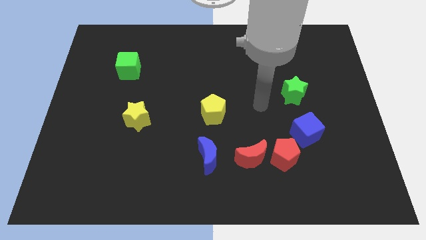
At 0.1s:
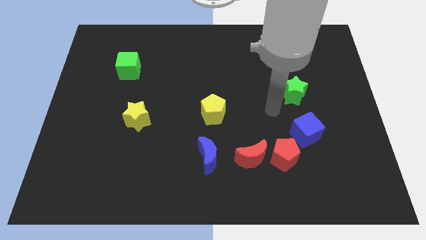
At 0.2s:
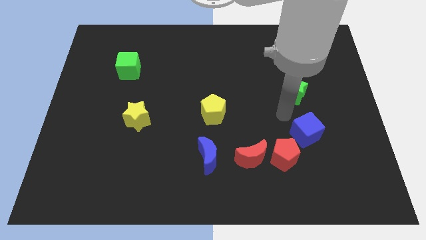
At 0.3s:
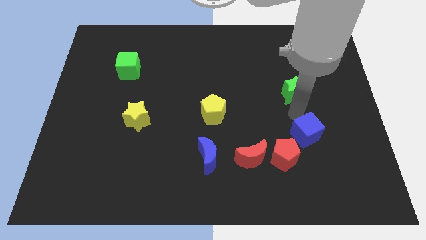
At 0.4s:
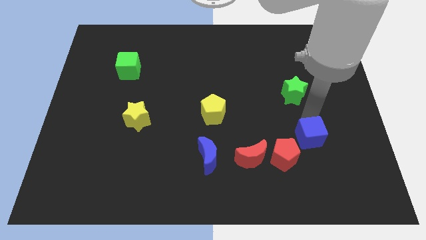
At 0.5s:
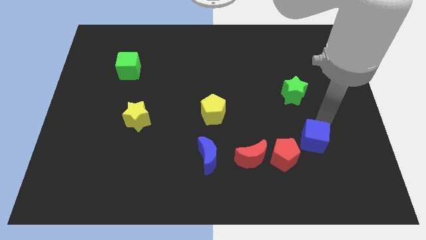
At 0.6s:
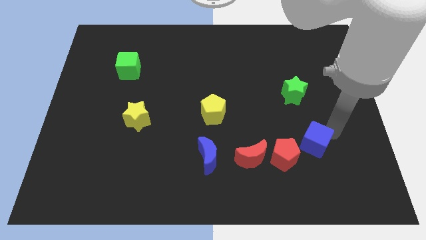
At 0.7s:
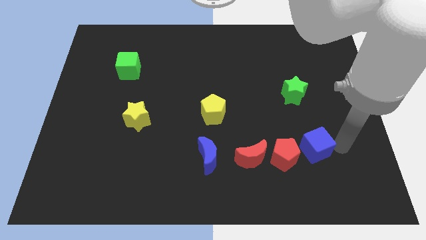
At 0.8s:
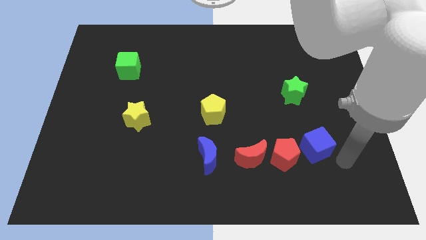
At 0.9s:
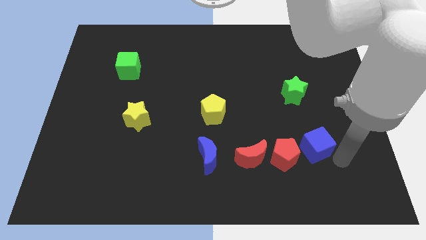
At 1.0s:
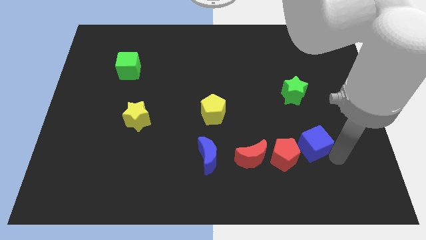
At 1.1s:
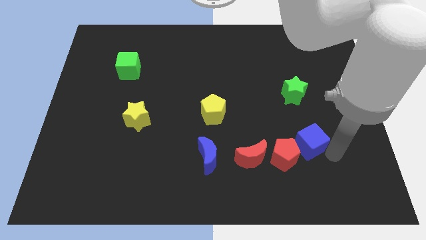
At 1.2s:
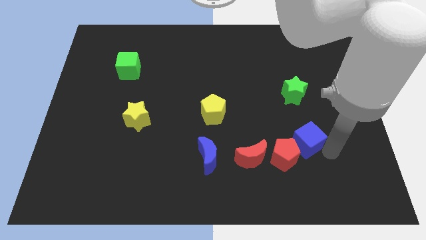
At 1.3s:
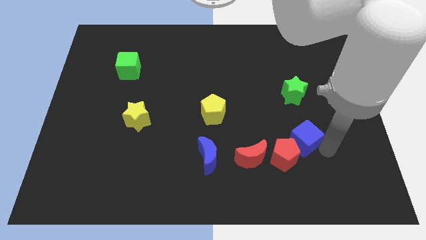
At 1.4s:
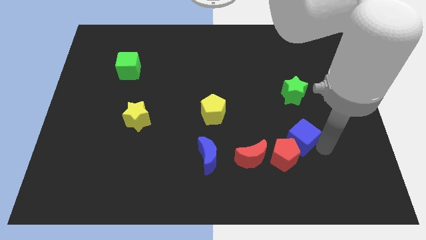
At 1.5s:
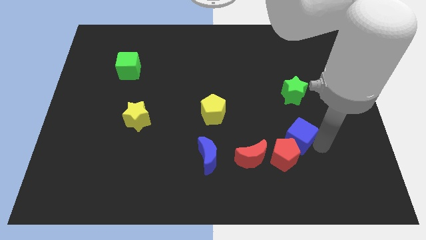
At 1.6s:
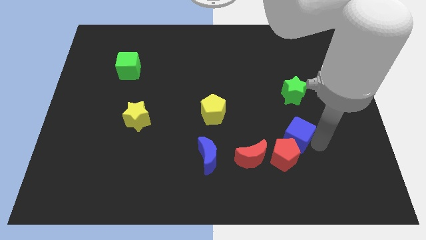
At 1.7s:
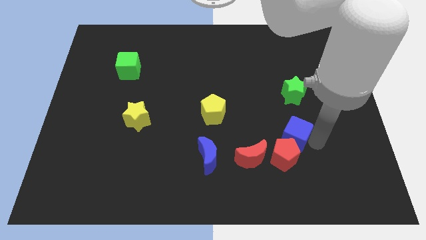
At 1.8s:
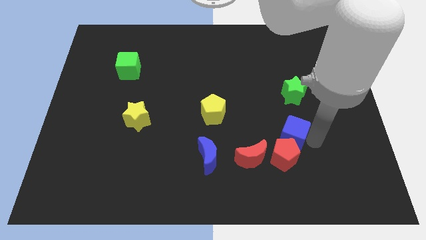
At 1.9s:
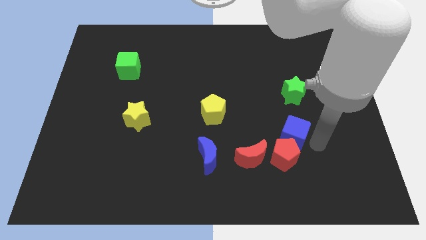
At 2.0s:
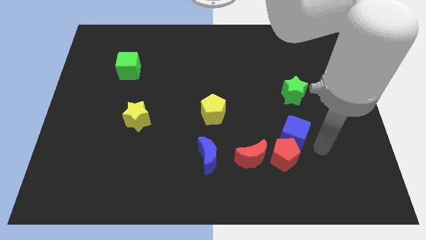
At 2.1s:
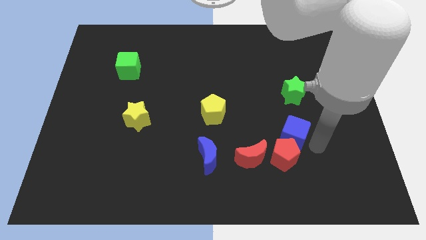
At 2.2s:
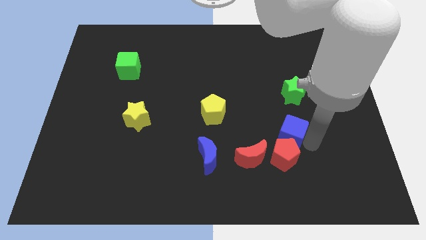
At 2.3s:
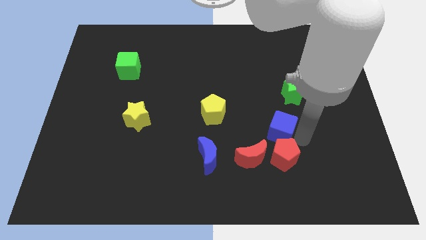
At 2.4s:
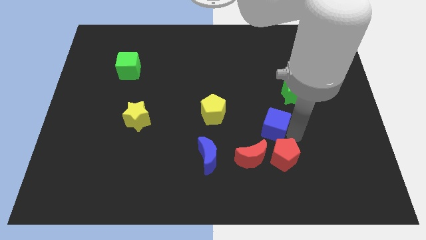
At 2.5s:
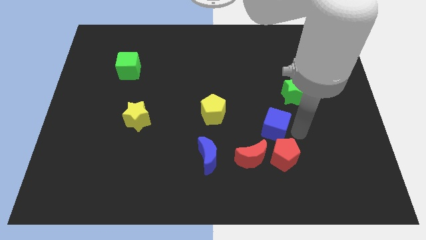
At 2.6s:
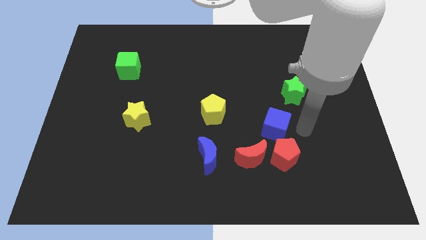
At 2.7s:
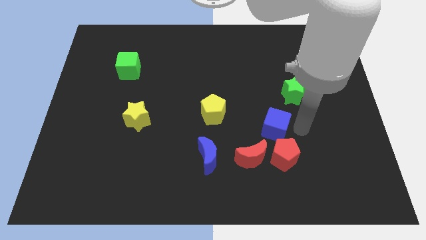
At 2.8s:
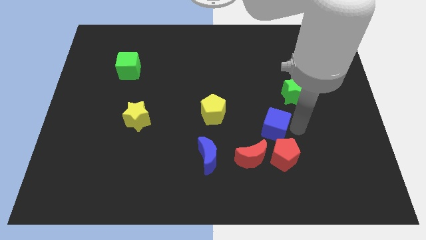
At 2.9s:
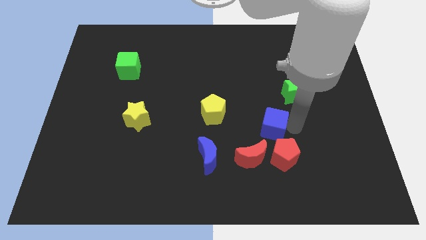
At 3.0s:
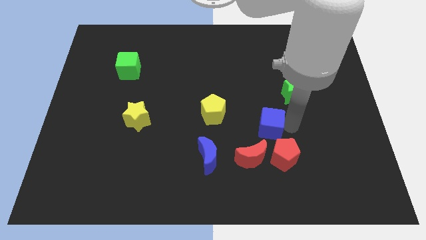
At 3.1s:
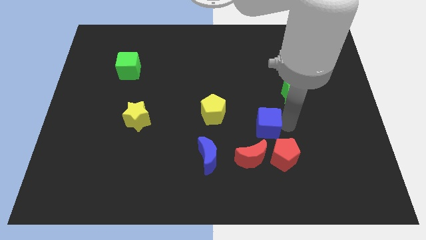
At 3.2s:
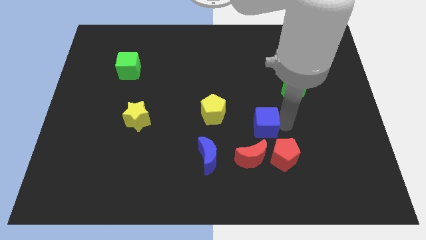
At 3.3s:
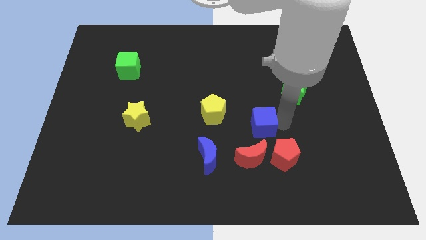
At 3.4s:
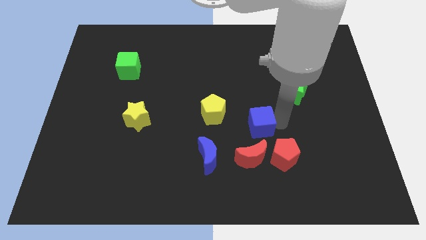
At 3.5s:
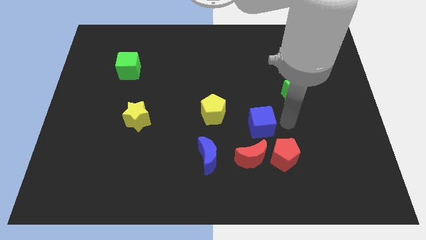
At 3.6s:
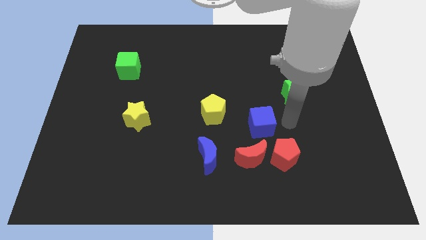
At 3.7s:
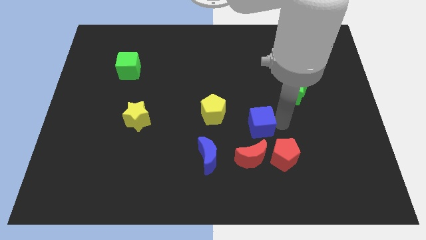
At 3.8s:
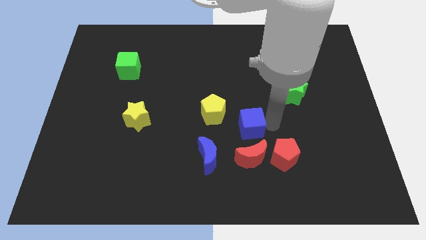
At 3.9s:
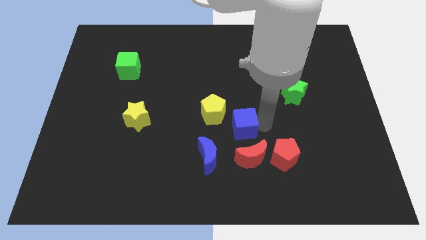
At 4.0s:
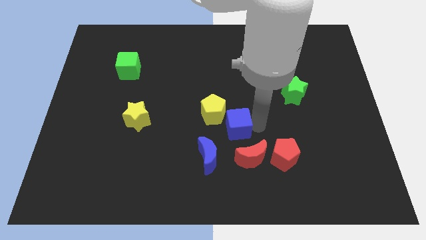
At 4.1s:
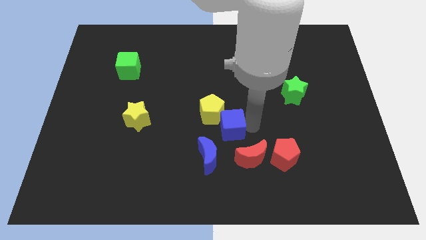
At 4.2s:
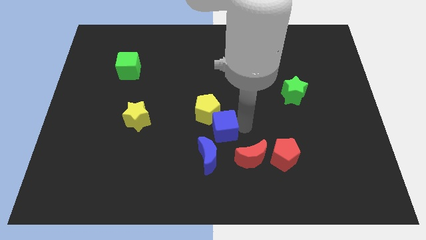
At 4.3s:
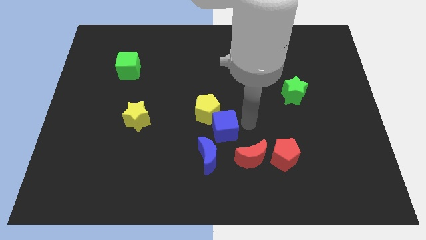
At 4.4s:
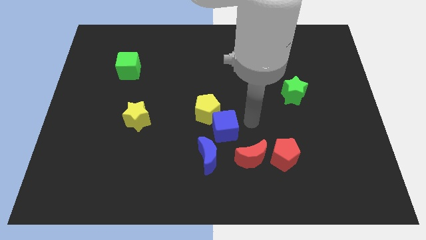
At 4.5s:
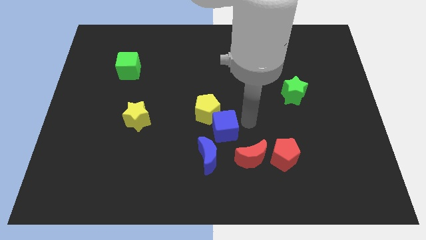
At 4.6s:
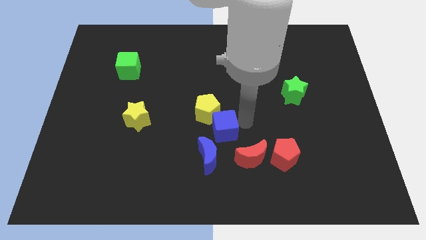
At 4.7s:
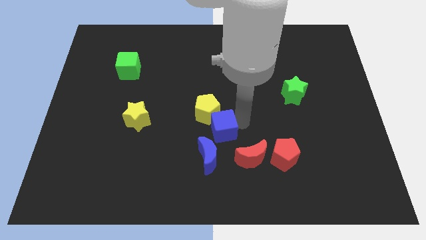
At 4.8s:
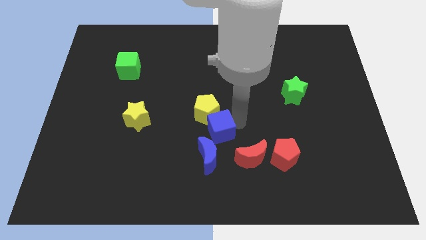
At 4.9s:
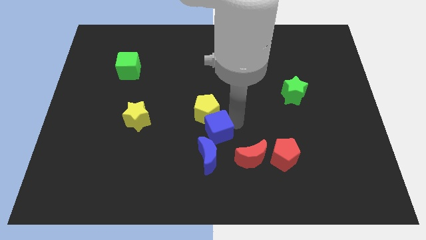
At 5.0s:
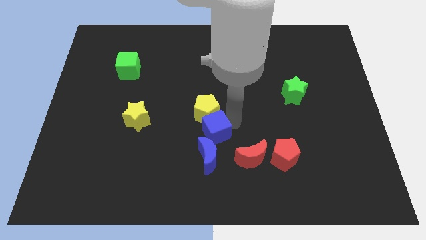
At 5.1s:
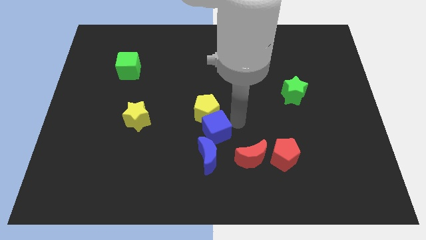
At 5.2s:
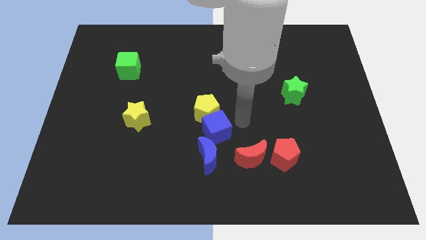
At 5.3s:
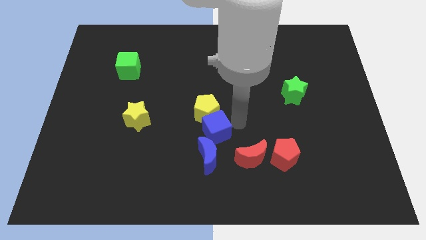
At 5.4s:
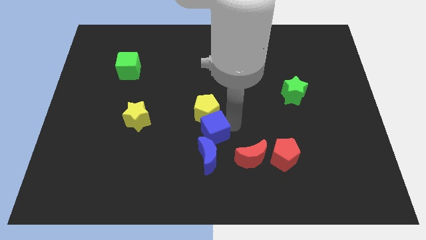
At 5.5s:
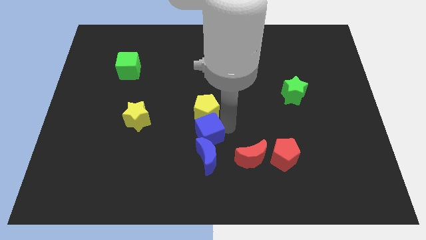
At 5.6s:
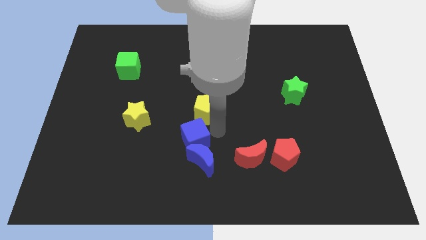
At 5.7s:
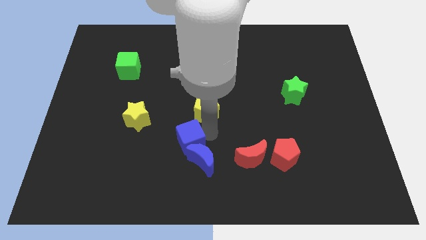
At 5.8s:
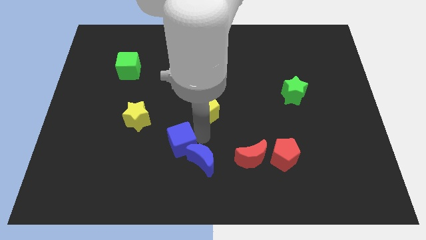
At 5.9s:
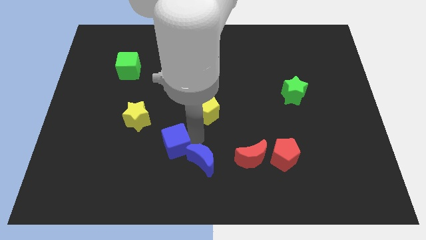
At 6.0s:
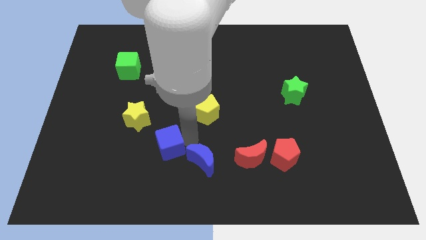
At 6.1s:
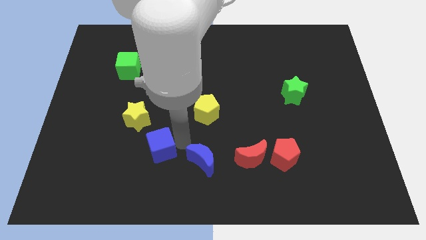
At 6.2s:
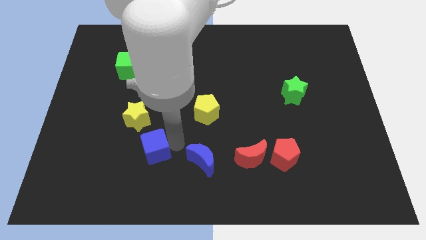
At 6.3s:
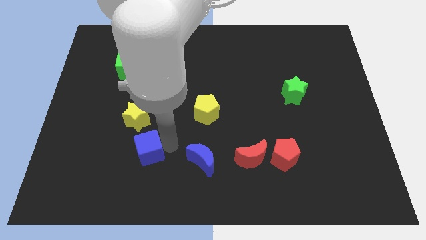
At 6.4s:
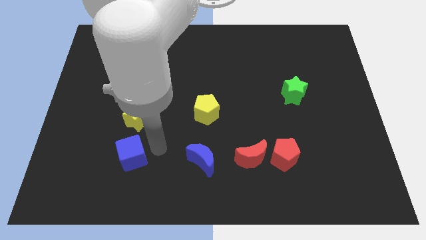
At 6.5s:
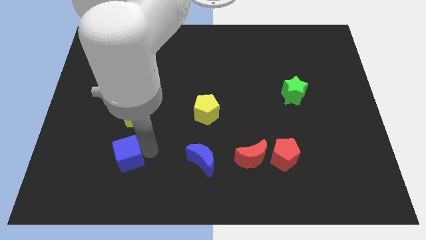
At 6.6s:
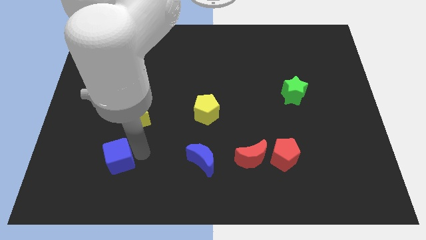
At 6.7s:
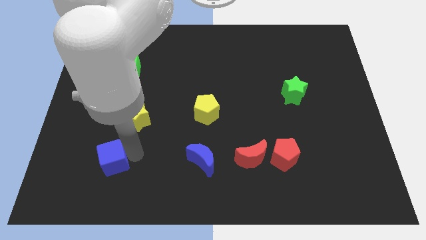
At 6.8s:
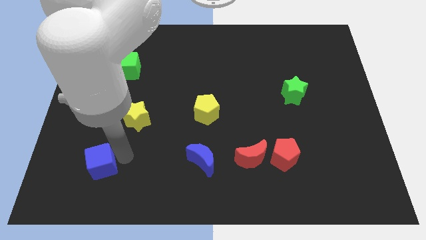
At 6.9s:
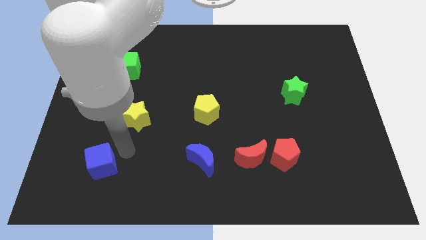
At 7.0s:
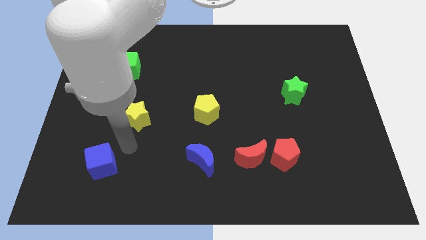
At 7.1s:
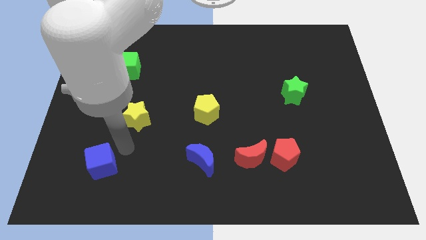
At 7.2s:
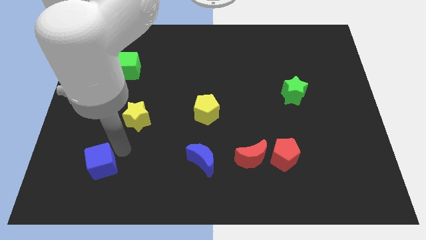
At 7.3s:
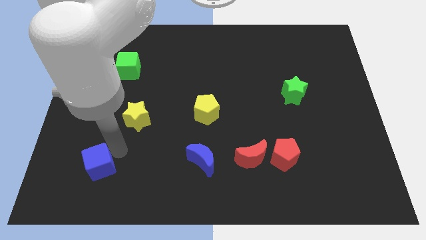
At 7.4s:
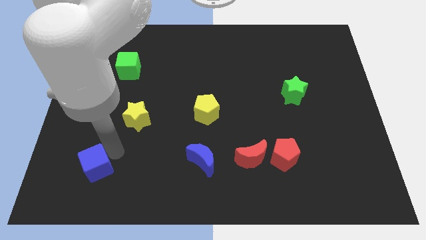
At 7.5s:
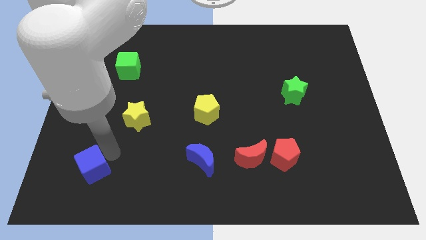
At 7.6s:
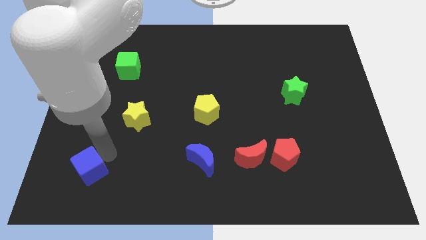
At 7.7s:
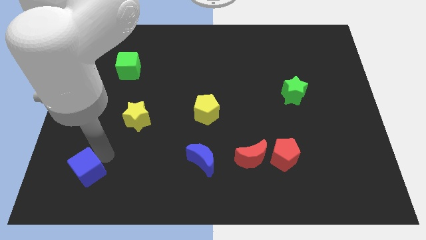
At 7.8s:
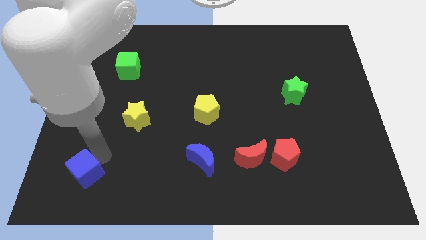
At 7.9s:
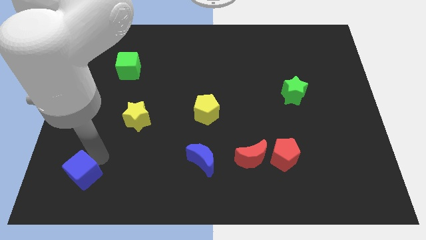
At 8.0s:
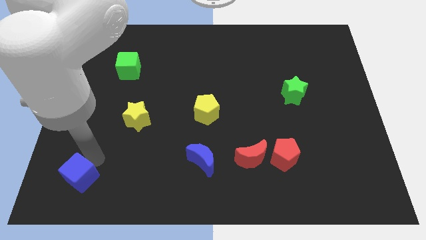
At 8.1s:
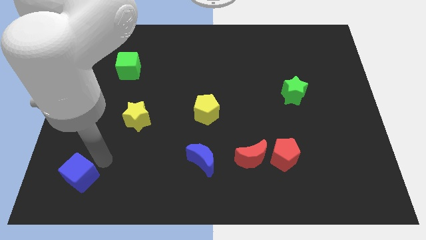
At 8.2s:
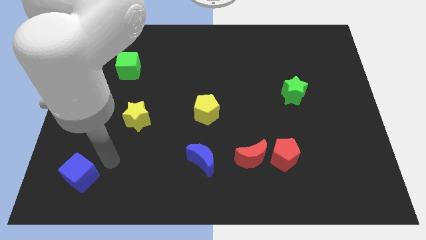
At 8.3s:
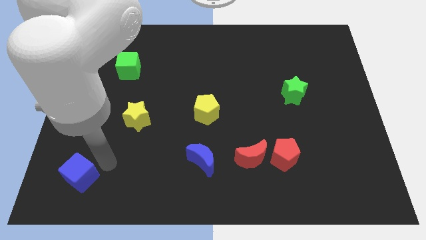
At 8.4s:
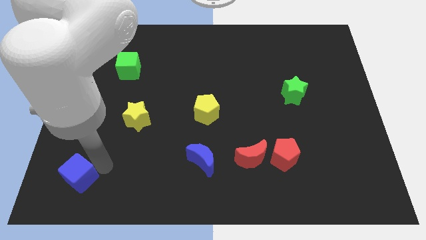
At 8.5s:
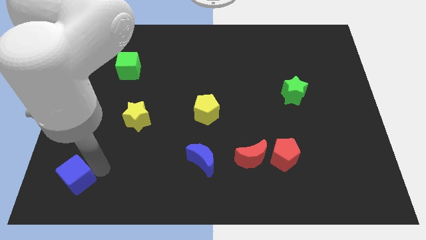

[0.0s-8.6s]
put the blue cube to the bottom left

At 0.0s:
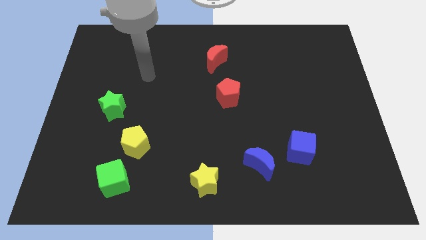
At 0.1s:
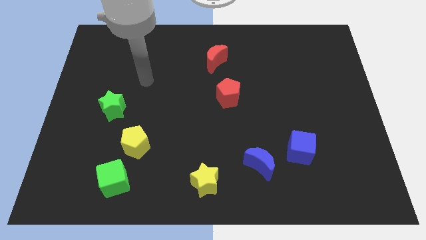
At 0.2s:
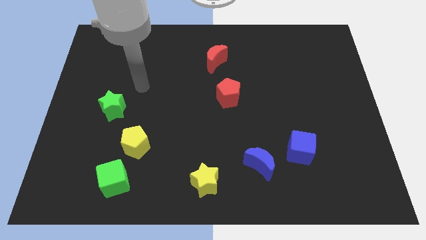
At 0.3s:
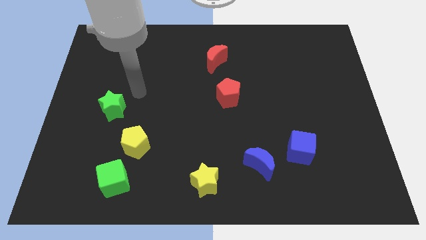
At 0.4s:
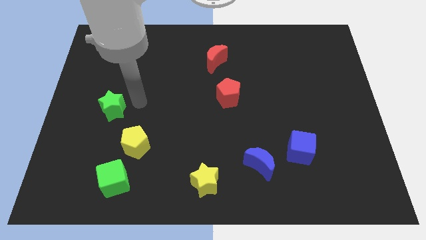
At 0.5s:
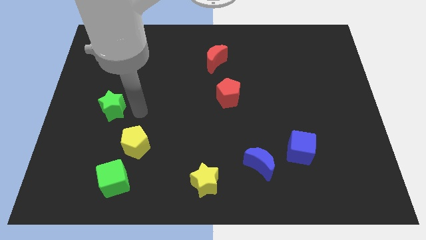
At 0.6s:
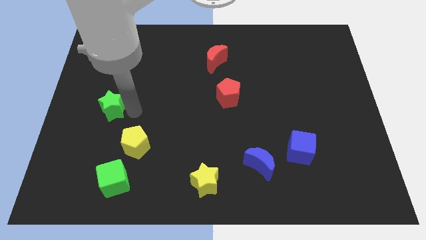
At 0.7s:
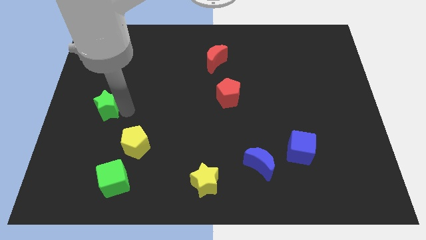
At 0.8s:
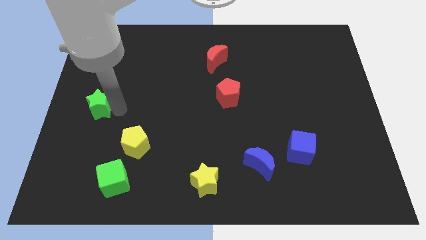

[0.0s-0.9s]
put the green star to the left side
